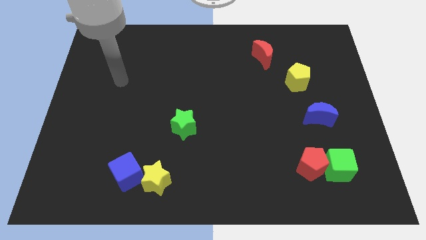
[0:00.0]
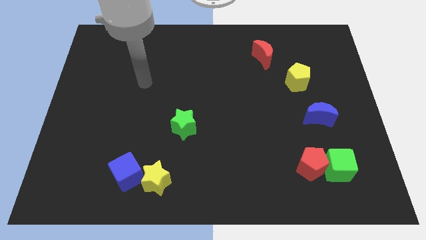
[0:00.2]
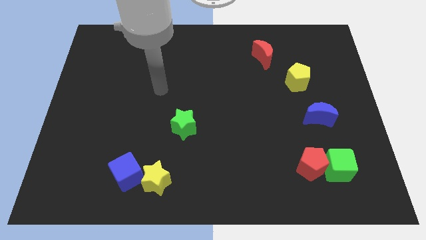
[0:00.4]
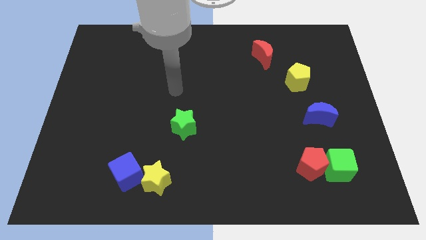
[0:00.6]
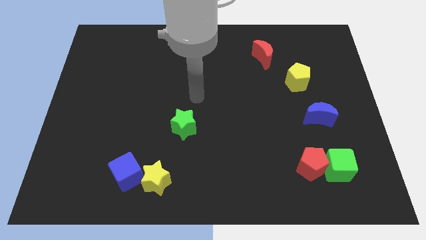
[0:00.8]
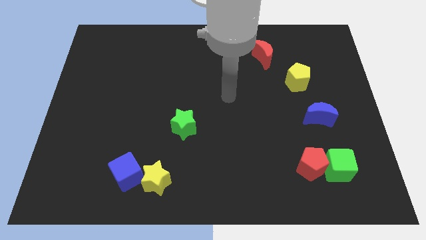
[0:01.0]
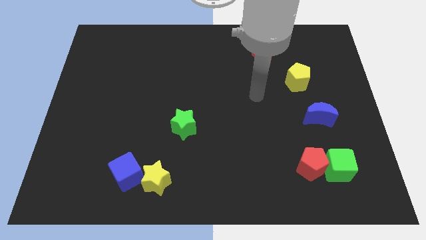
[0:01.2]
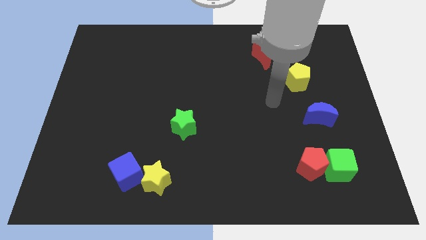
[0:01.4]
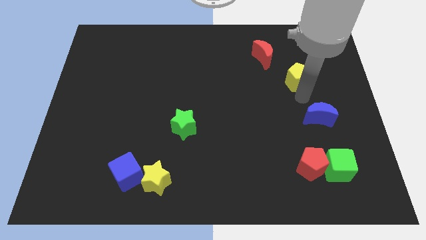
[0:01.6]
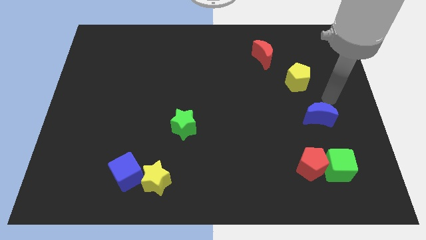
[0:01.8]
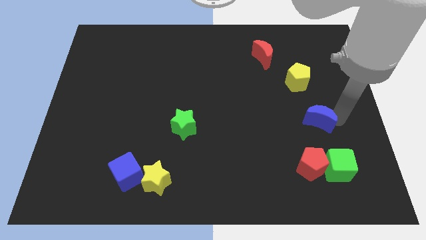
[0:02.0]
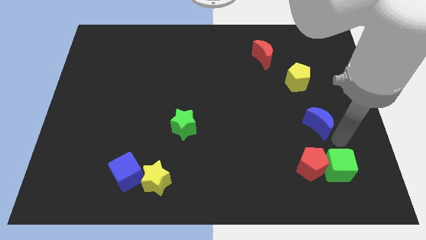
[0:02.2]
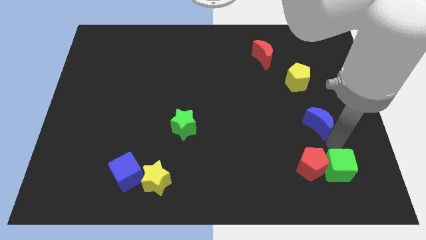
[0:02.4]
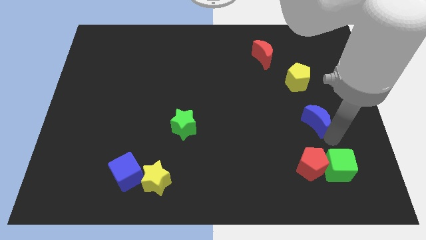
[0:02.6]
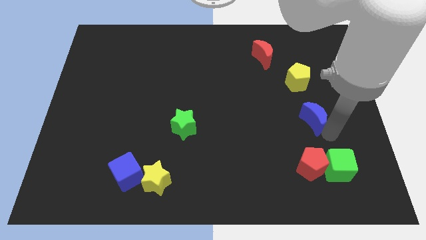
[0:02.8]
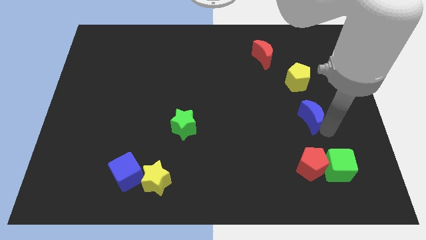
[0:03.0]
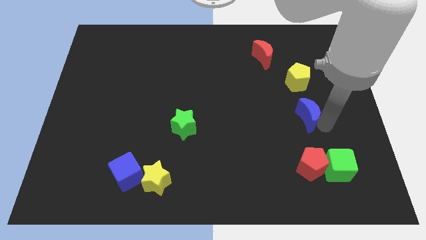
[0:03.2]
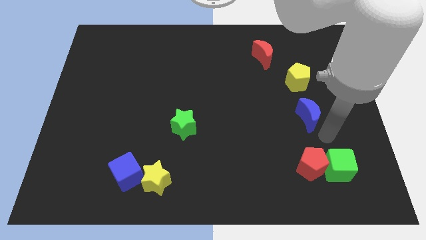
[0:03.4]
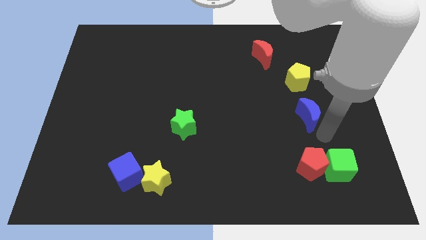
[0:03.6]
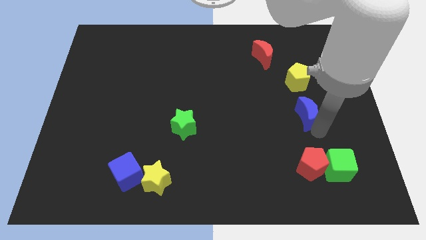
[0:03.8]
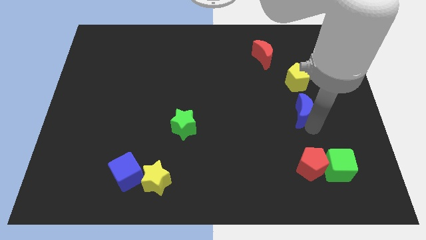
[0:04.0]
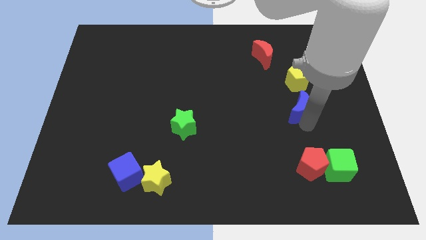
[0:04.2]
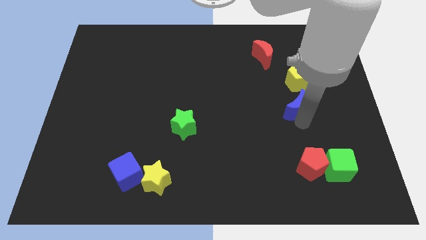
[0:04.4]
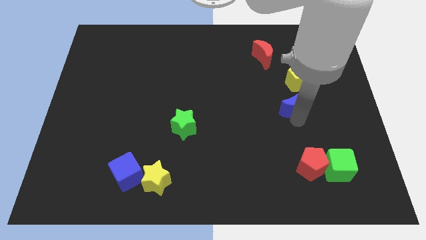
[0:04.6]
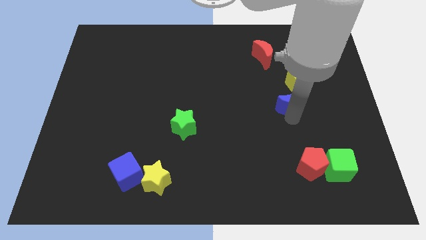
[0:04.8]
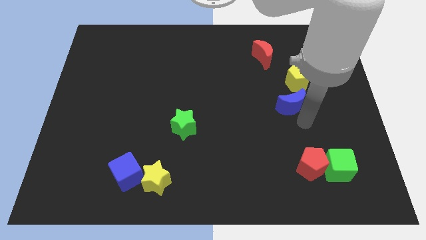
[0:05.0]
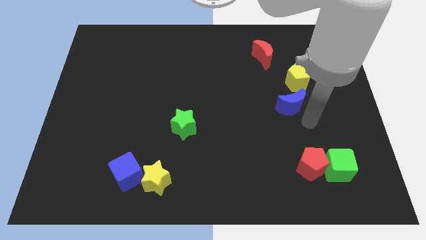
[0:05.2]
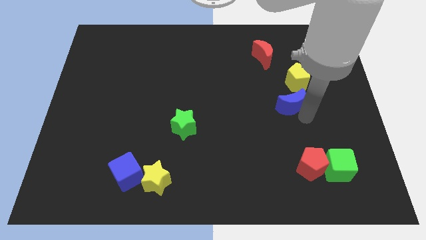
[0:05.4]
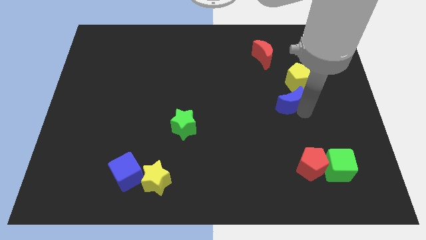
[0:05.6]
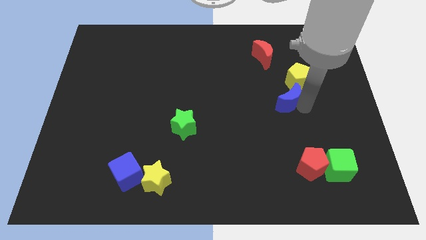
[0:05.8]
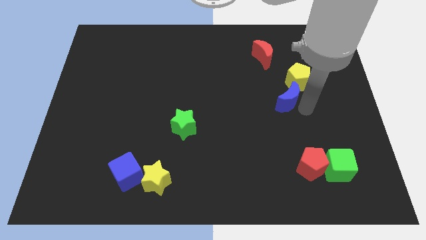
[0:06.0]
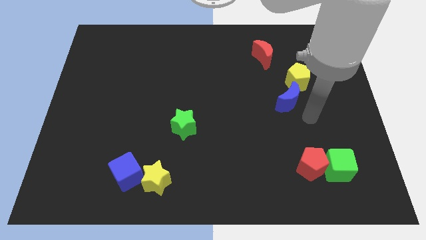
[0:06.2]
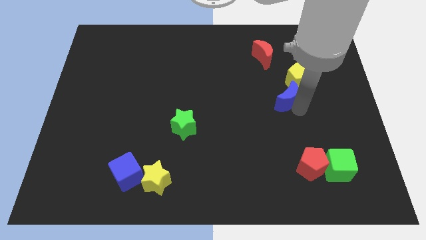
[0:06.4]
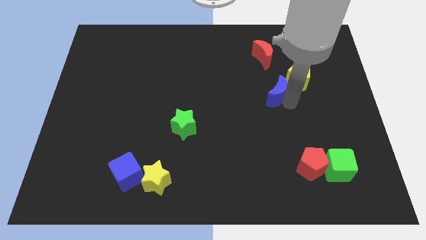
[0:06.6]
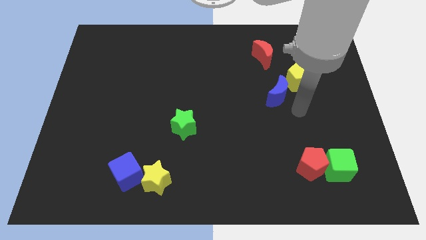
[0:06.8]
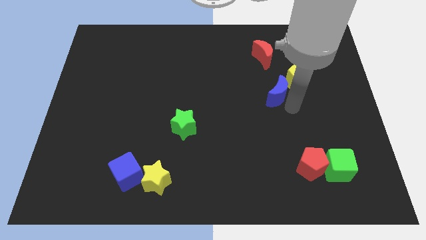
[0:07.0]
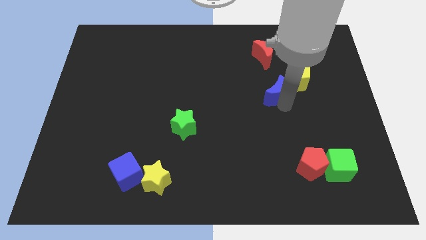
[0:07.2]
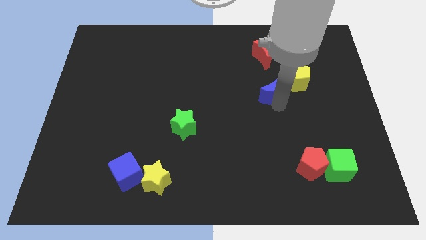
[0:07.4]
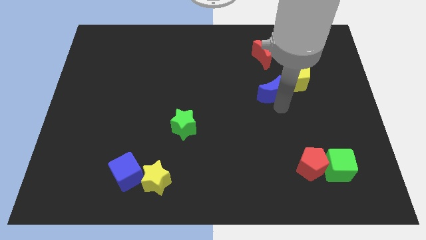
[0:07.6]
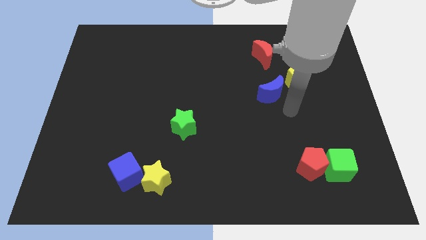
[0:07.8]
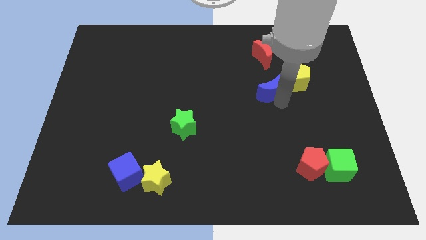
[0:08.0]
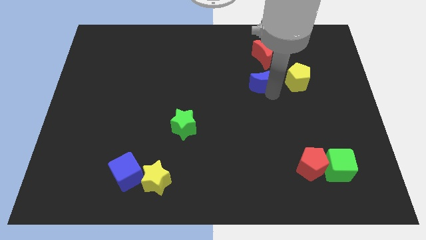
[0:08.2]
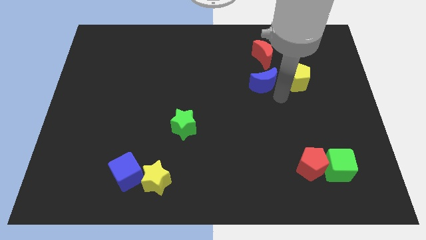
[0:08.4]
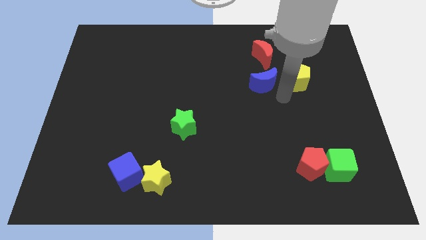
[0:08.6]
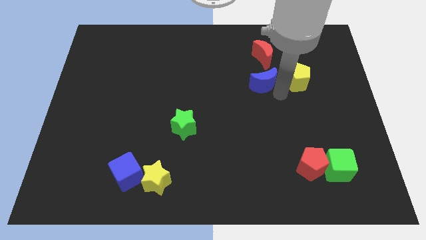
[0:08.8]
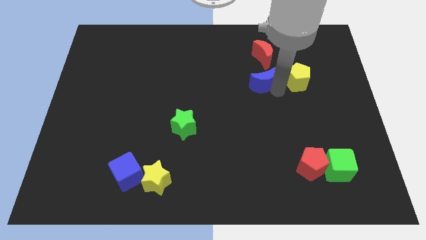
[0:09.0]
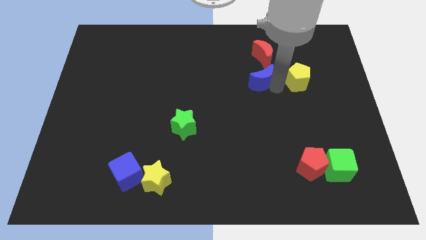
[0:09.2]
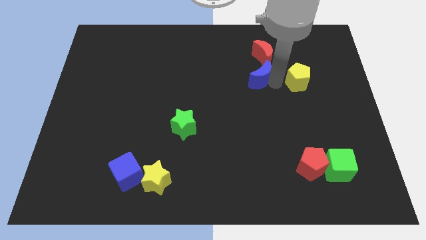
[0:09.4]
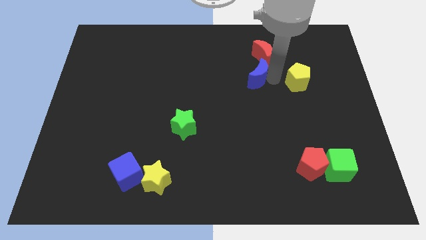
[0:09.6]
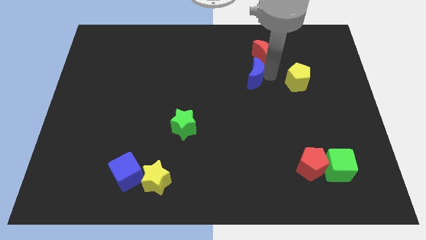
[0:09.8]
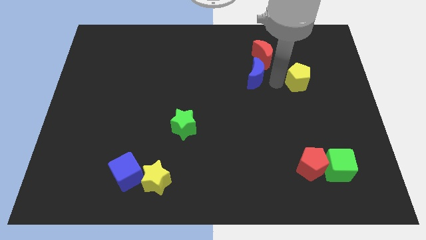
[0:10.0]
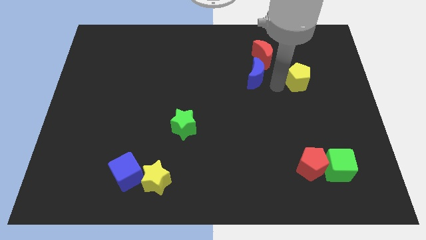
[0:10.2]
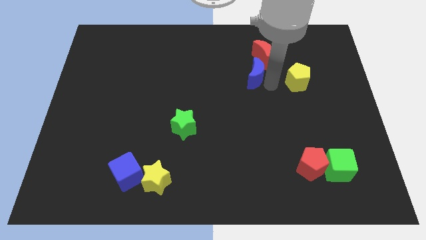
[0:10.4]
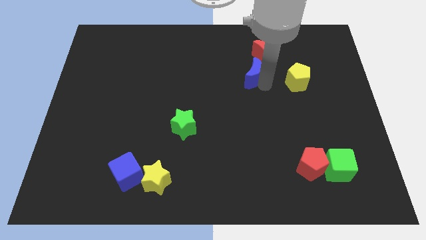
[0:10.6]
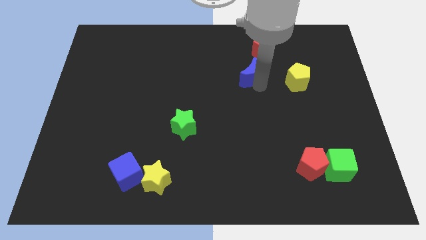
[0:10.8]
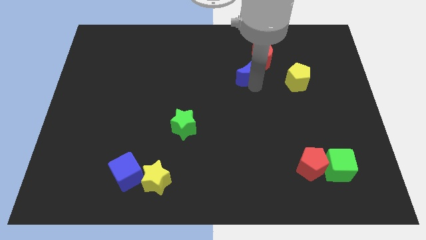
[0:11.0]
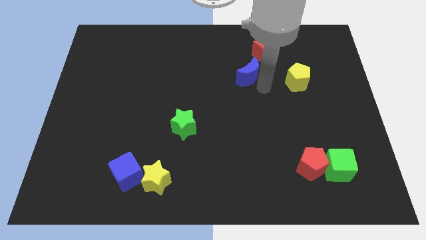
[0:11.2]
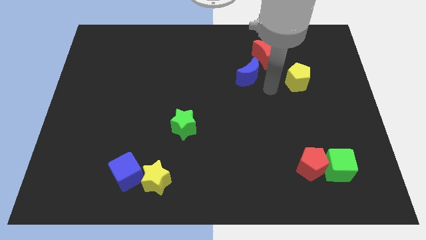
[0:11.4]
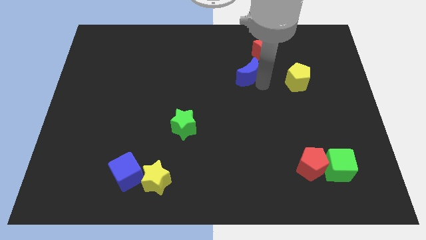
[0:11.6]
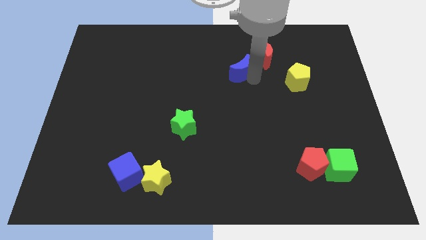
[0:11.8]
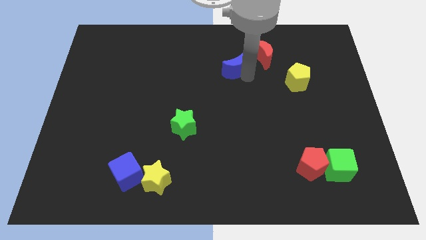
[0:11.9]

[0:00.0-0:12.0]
push the blue moon to the left side of the red moon

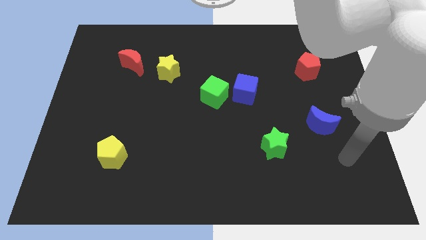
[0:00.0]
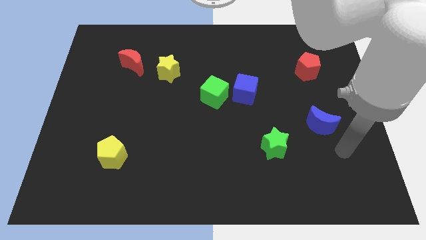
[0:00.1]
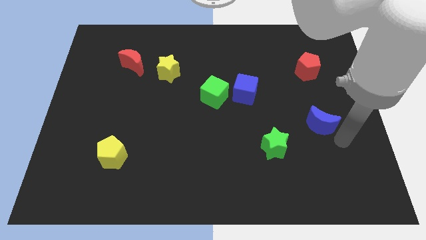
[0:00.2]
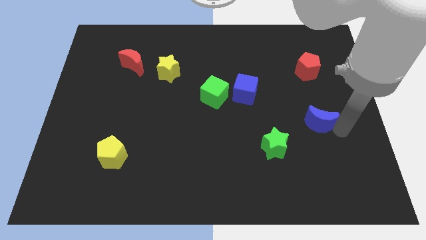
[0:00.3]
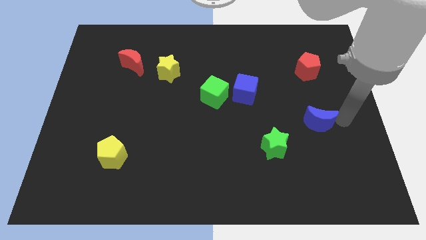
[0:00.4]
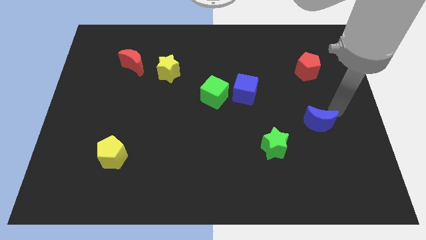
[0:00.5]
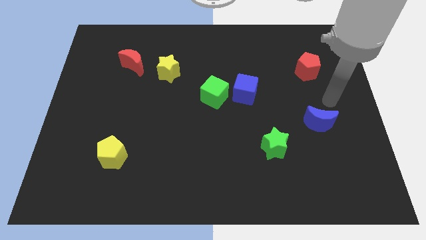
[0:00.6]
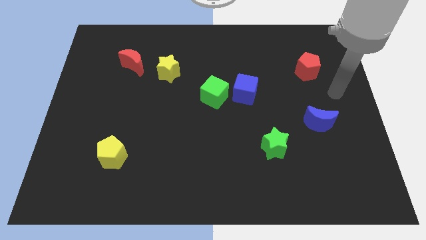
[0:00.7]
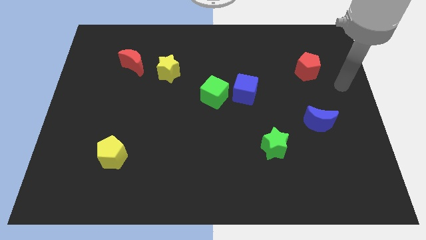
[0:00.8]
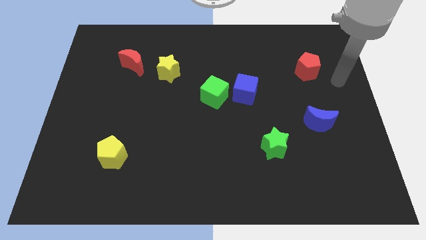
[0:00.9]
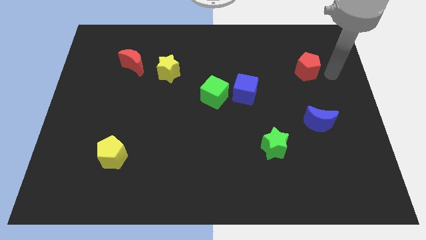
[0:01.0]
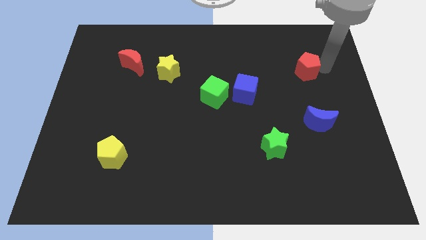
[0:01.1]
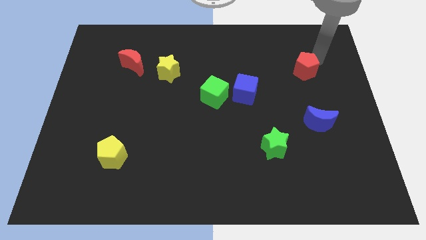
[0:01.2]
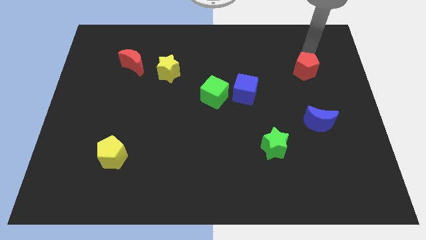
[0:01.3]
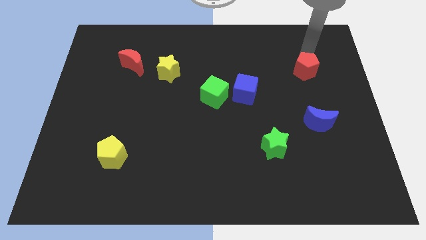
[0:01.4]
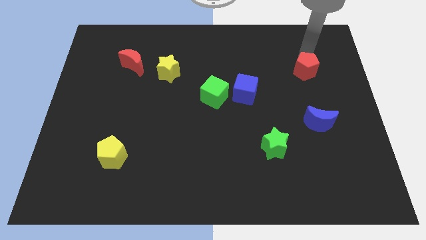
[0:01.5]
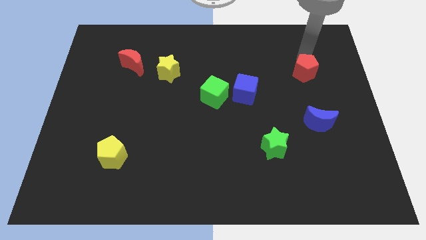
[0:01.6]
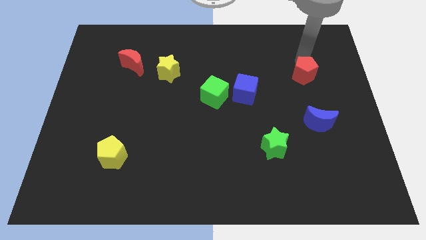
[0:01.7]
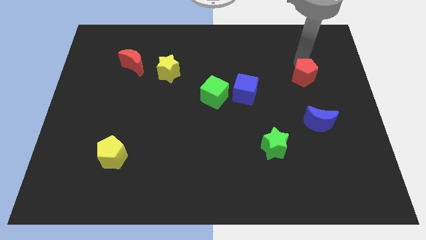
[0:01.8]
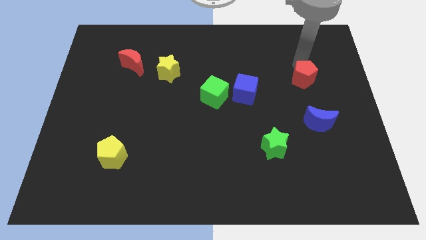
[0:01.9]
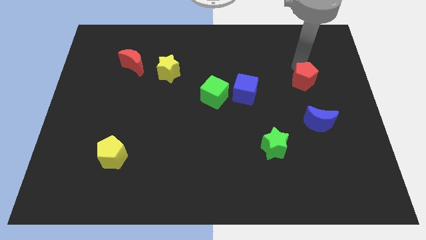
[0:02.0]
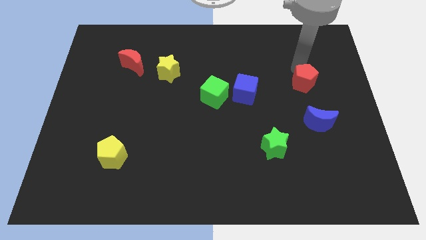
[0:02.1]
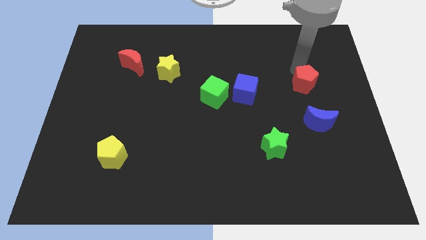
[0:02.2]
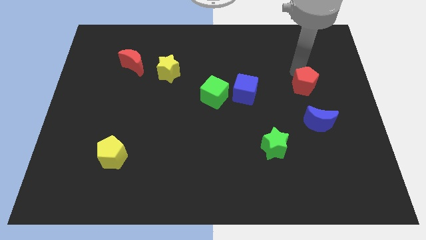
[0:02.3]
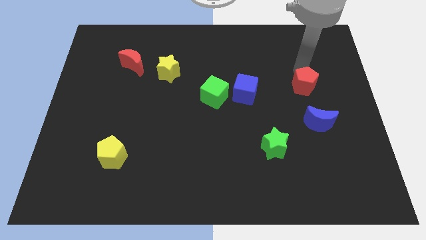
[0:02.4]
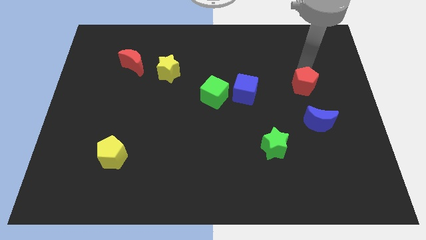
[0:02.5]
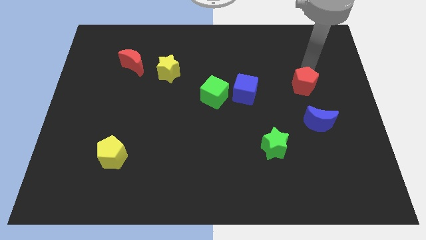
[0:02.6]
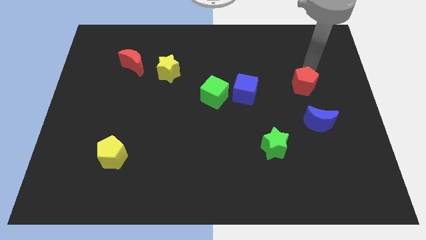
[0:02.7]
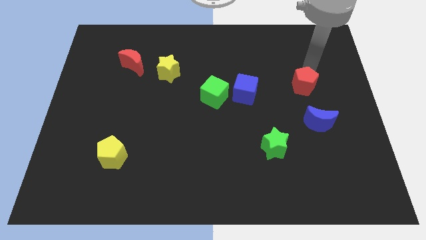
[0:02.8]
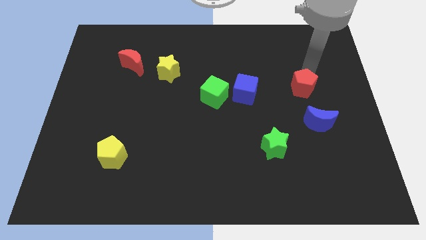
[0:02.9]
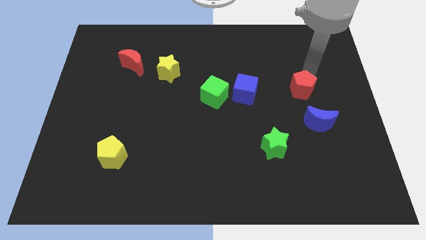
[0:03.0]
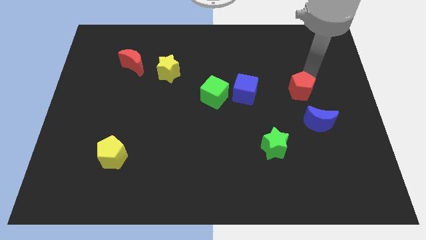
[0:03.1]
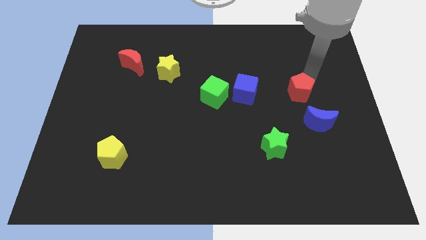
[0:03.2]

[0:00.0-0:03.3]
move the red pentagon to the top left of the blue moon
